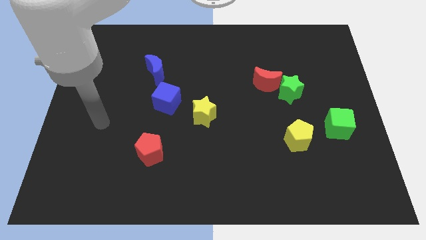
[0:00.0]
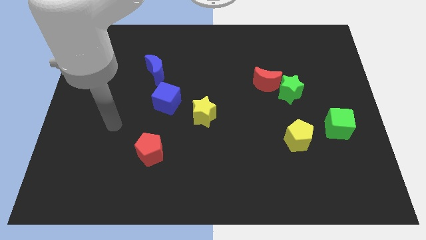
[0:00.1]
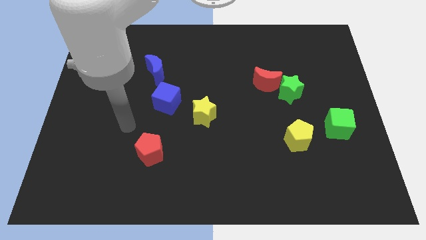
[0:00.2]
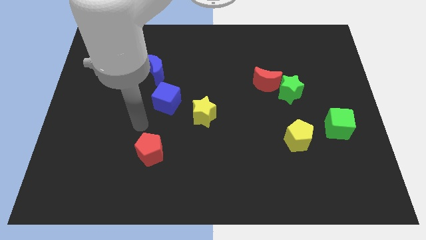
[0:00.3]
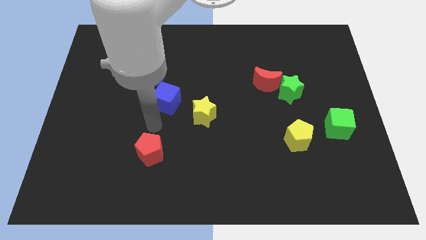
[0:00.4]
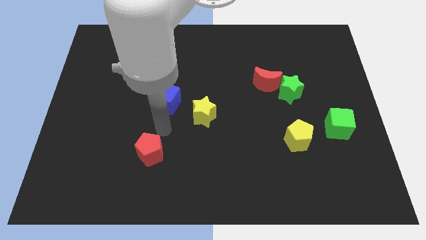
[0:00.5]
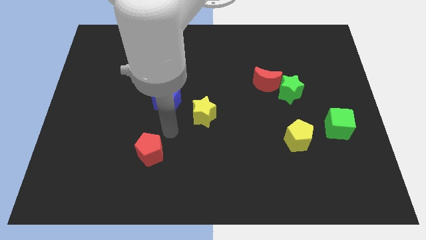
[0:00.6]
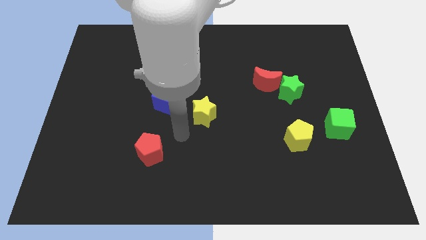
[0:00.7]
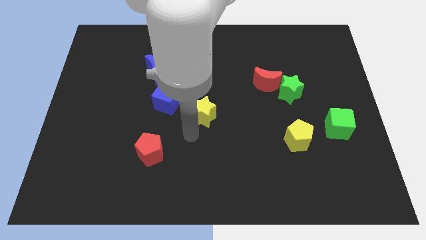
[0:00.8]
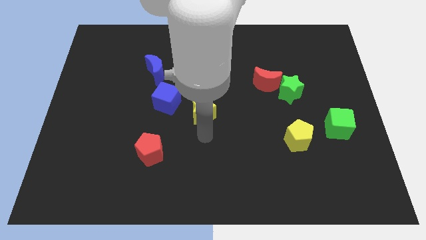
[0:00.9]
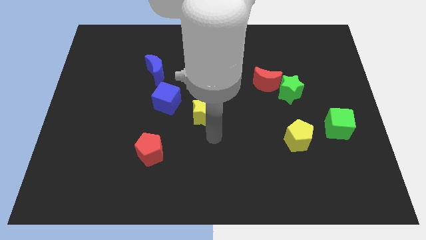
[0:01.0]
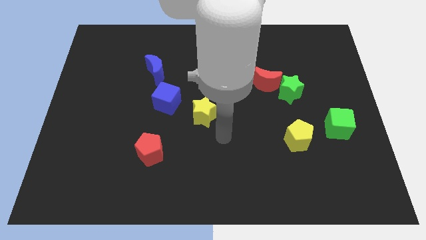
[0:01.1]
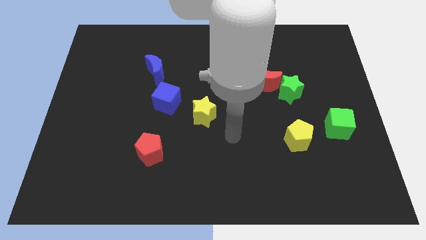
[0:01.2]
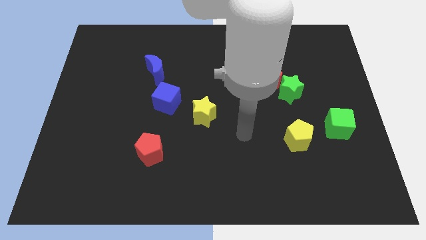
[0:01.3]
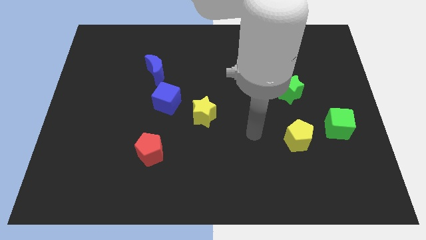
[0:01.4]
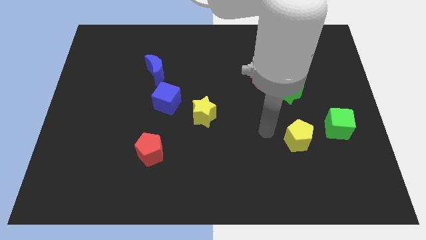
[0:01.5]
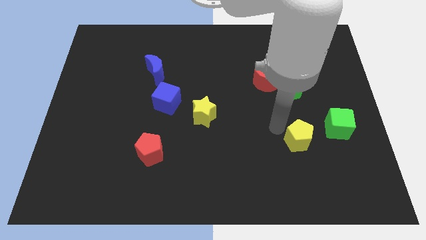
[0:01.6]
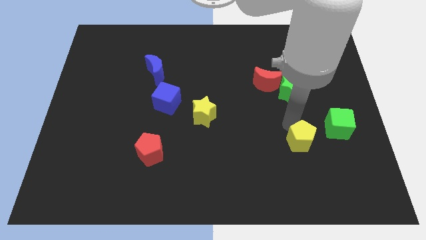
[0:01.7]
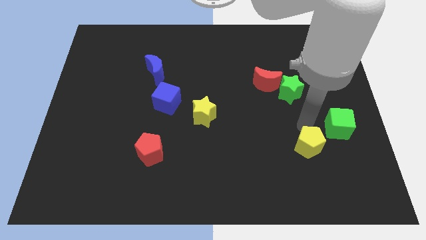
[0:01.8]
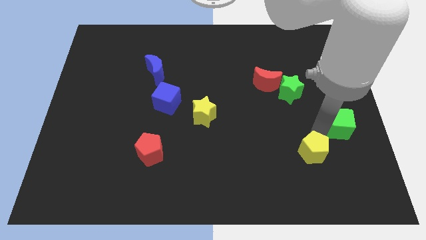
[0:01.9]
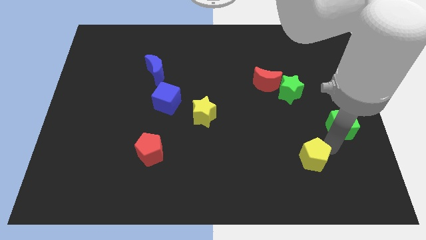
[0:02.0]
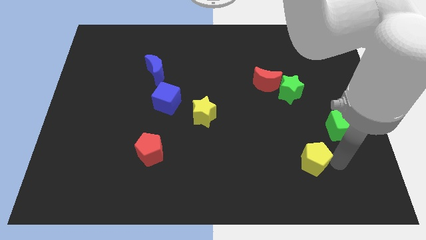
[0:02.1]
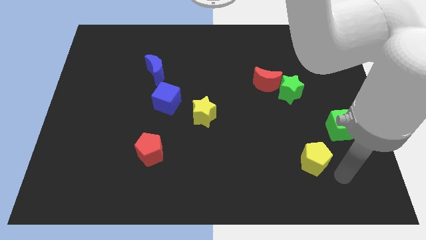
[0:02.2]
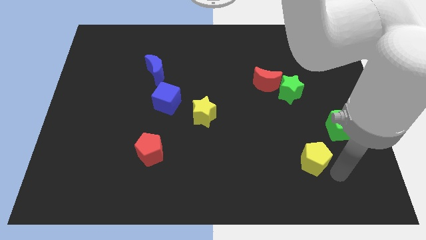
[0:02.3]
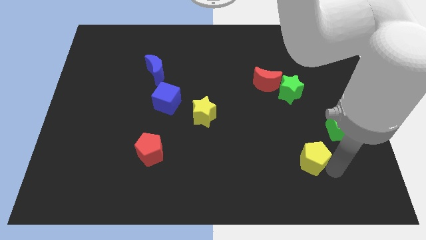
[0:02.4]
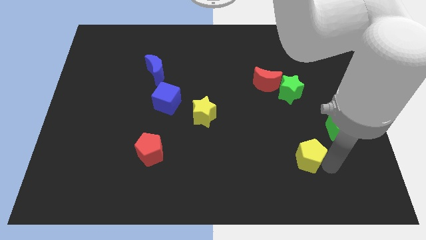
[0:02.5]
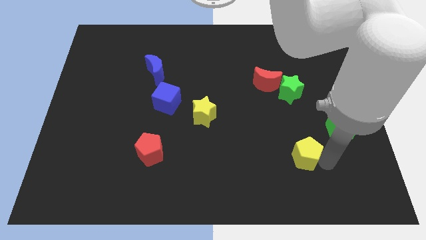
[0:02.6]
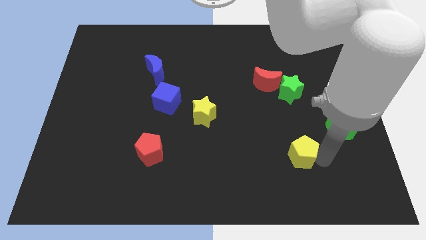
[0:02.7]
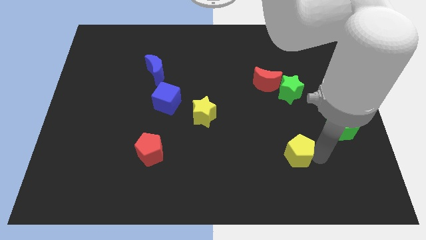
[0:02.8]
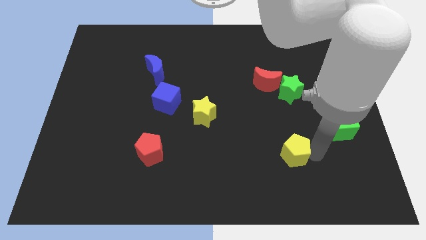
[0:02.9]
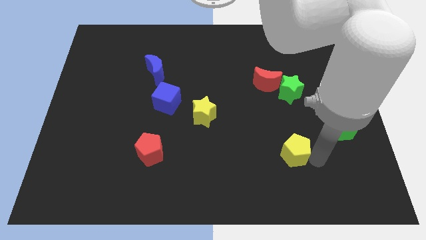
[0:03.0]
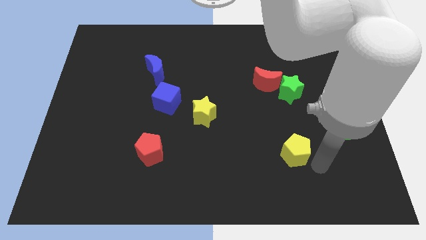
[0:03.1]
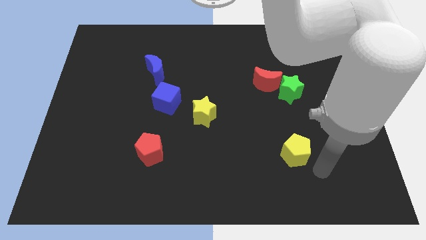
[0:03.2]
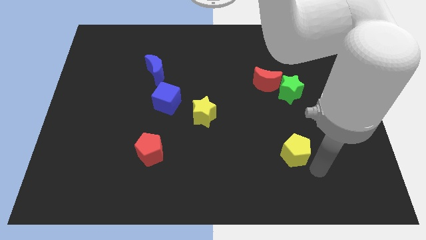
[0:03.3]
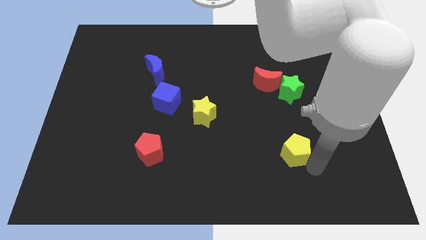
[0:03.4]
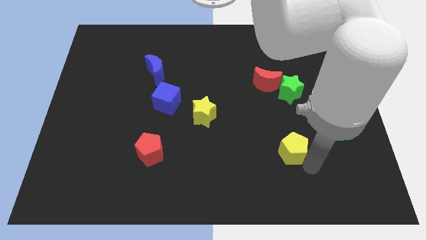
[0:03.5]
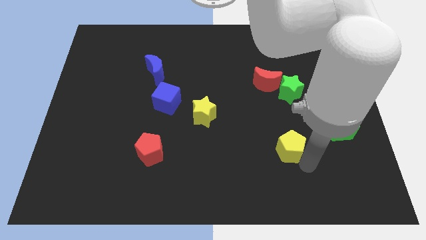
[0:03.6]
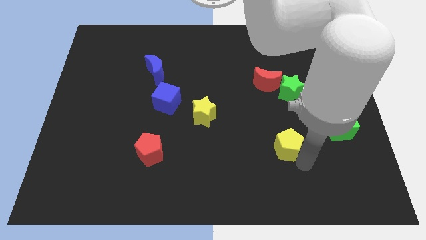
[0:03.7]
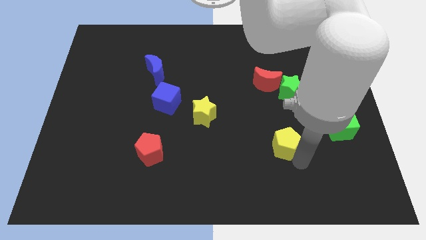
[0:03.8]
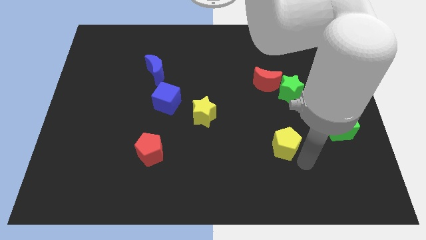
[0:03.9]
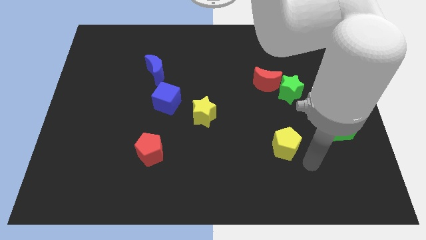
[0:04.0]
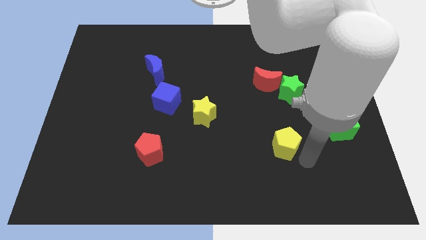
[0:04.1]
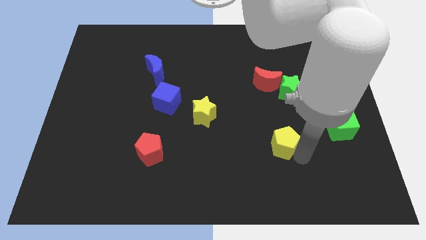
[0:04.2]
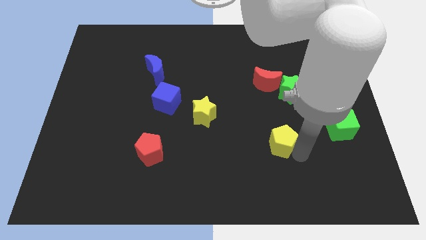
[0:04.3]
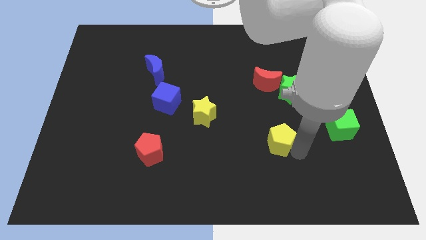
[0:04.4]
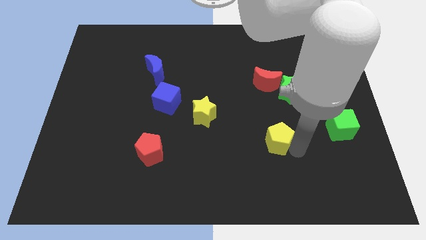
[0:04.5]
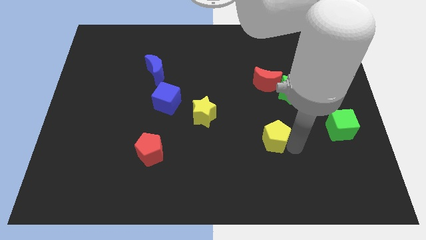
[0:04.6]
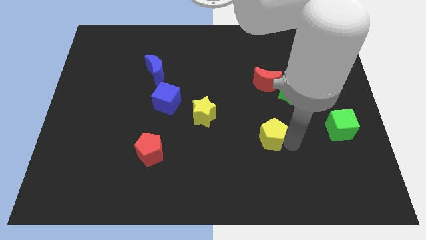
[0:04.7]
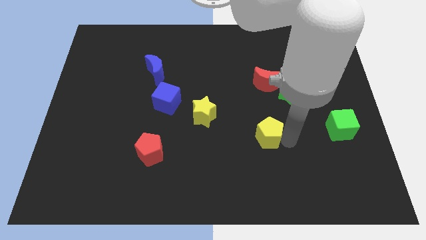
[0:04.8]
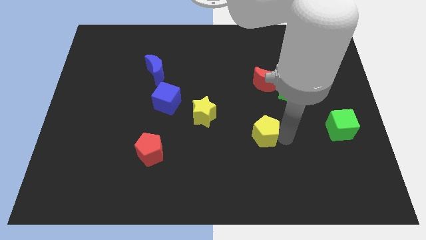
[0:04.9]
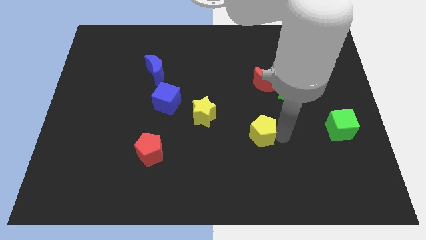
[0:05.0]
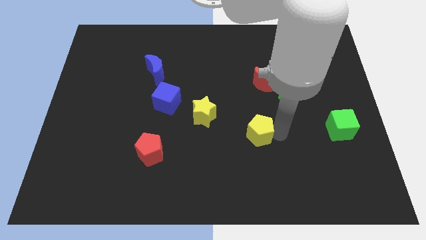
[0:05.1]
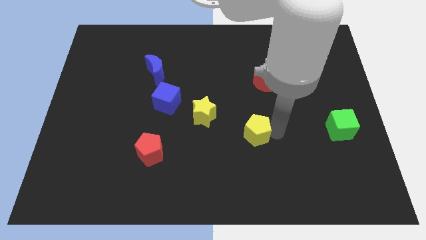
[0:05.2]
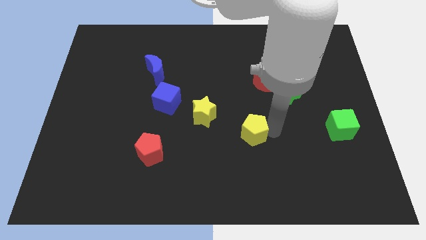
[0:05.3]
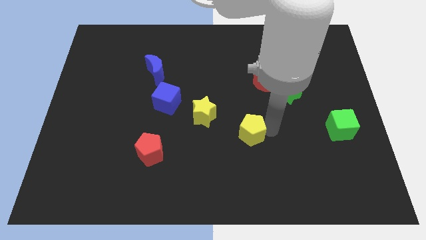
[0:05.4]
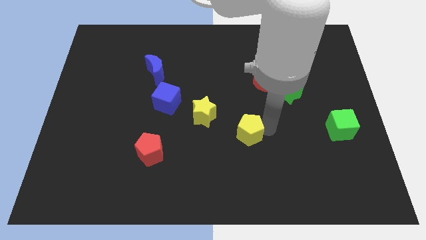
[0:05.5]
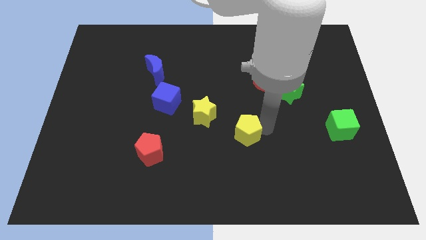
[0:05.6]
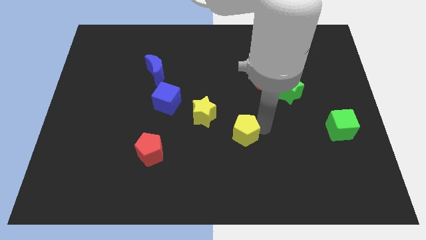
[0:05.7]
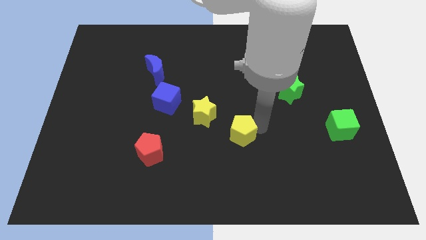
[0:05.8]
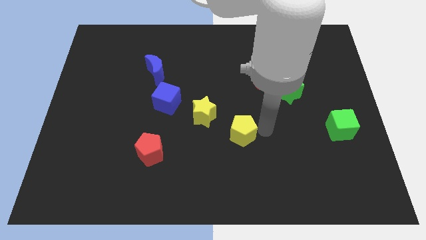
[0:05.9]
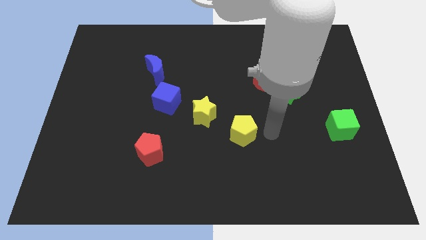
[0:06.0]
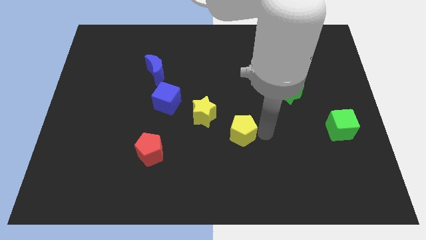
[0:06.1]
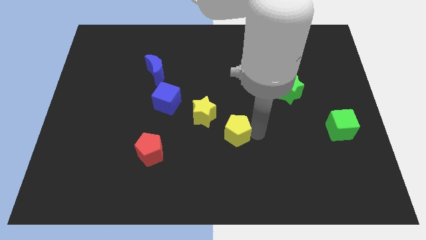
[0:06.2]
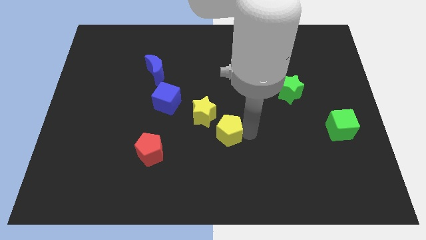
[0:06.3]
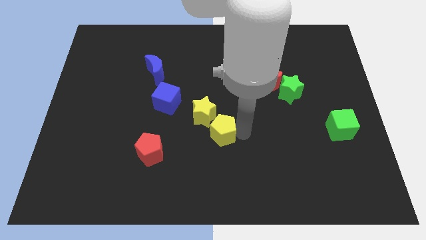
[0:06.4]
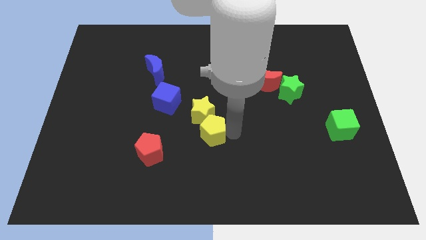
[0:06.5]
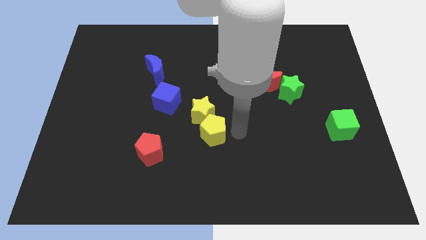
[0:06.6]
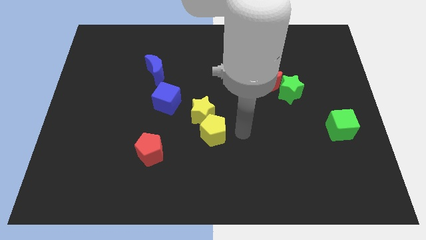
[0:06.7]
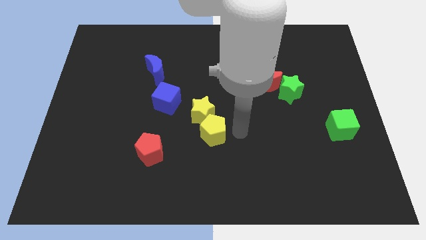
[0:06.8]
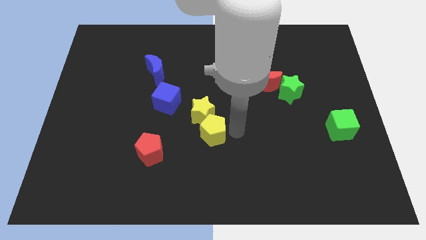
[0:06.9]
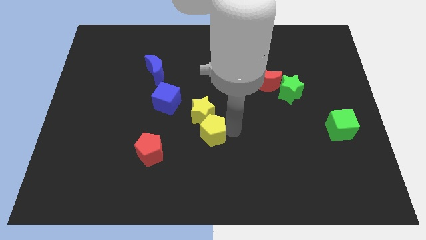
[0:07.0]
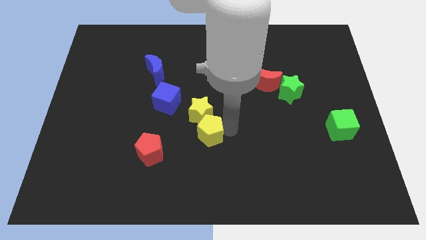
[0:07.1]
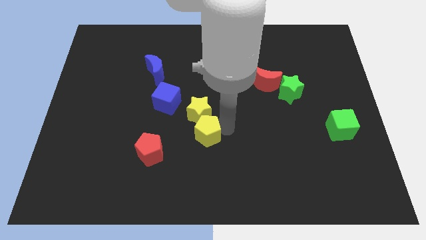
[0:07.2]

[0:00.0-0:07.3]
put the yellow pentagon to the bottom left of the yellow star
